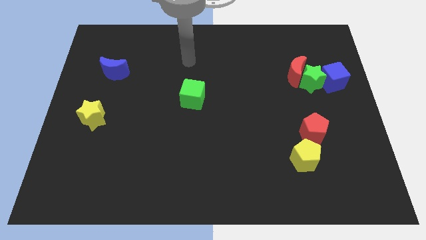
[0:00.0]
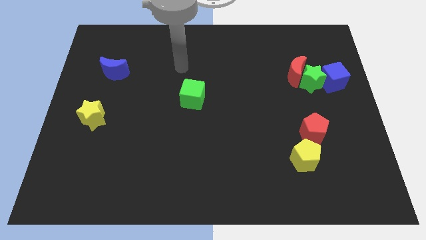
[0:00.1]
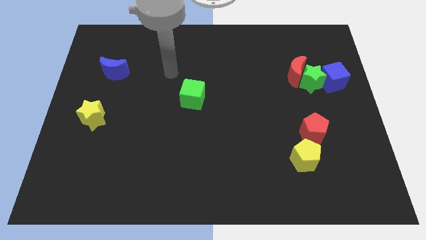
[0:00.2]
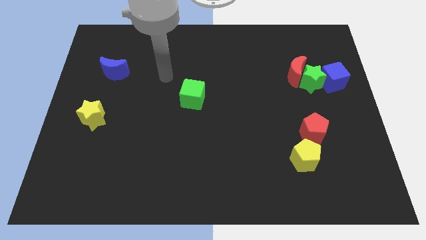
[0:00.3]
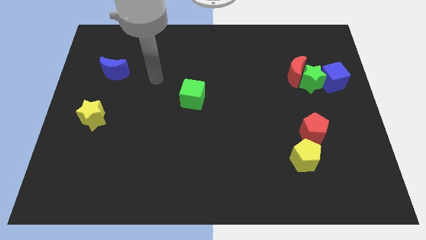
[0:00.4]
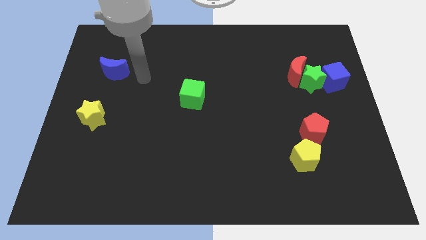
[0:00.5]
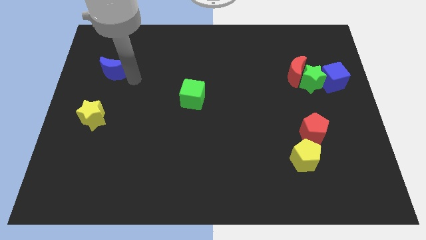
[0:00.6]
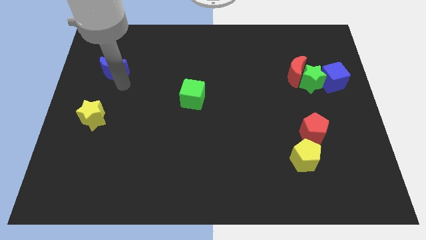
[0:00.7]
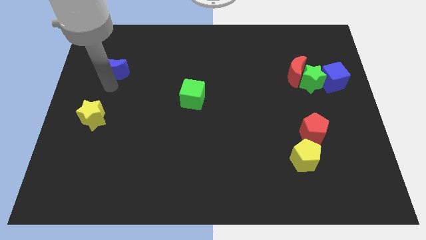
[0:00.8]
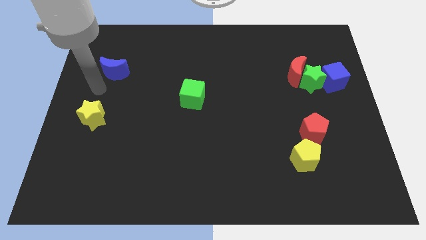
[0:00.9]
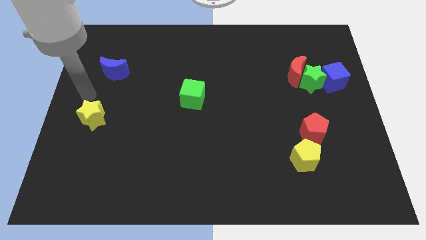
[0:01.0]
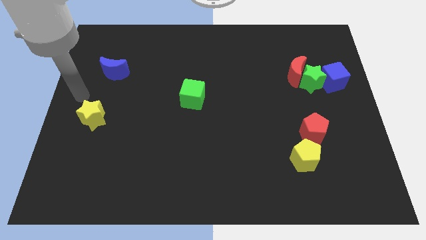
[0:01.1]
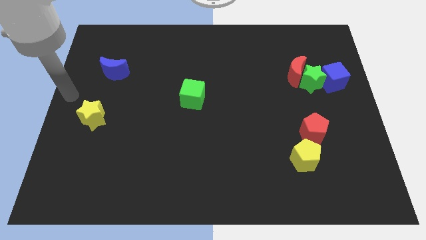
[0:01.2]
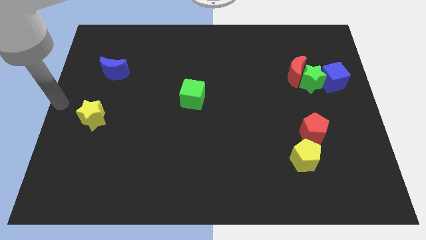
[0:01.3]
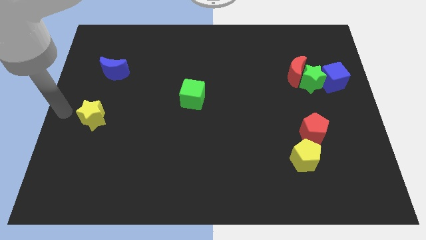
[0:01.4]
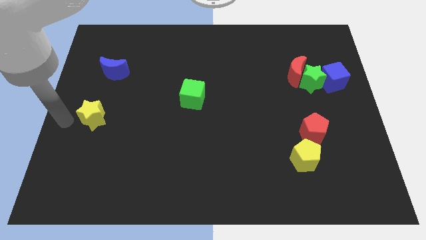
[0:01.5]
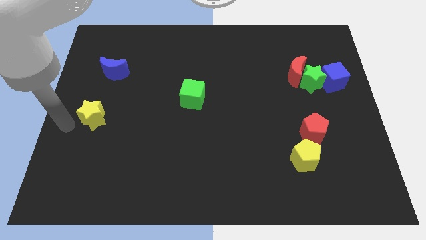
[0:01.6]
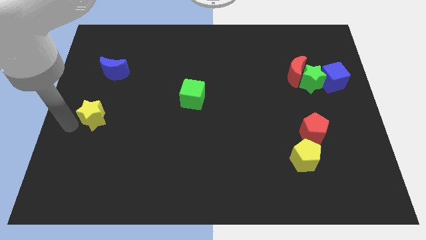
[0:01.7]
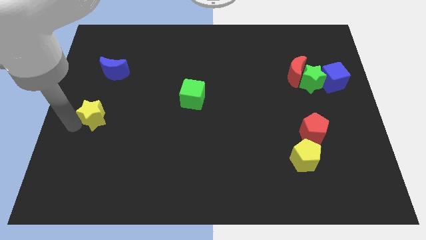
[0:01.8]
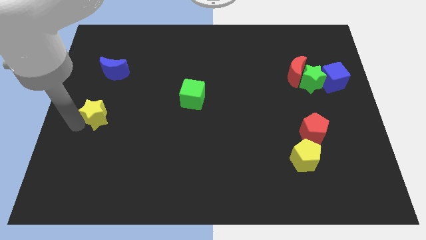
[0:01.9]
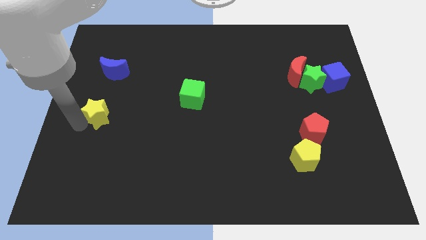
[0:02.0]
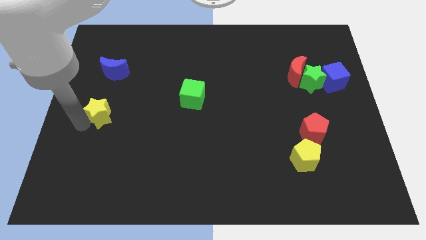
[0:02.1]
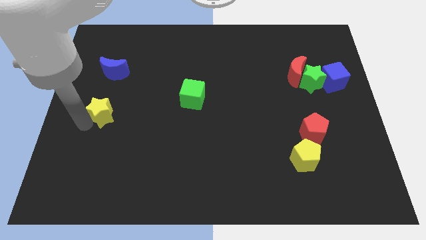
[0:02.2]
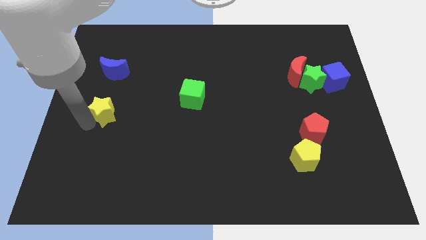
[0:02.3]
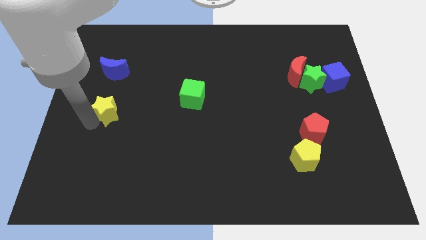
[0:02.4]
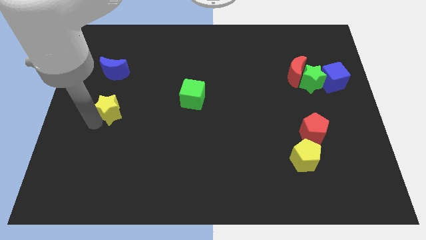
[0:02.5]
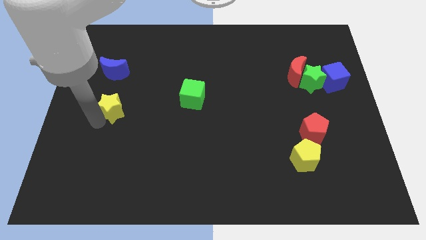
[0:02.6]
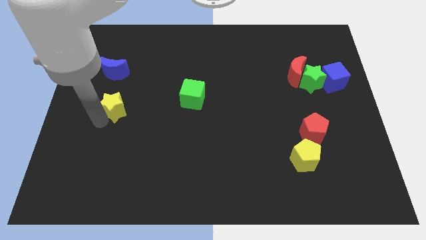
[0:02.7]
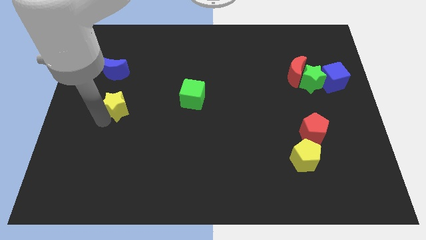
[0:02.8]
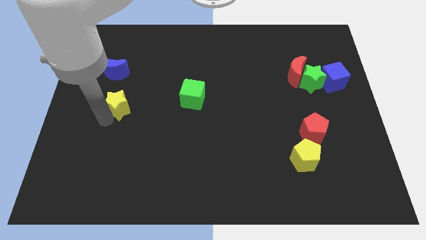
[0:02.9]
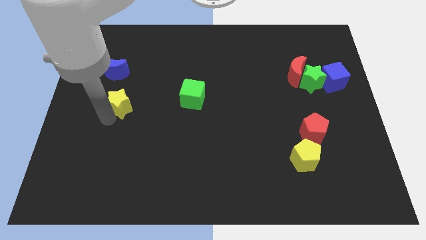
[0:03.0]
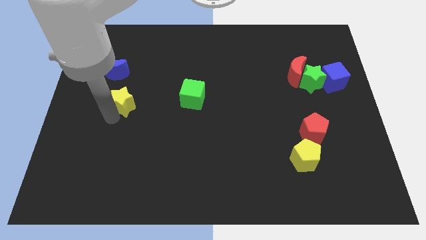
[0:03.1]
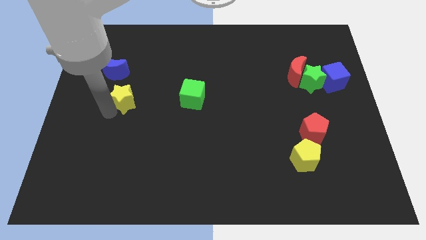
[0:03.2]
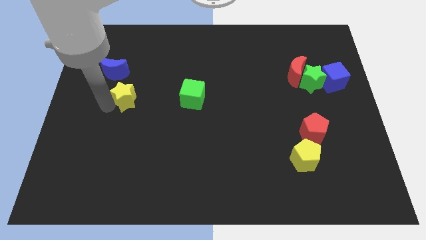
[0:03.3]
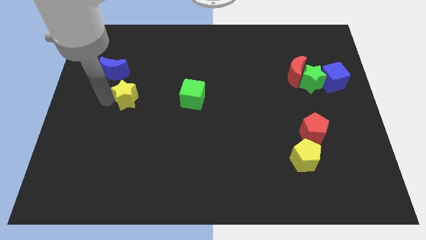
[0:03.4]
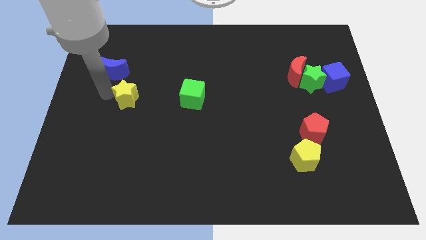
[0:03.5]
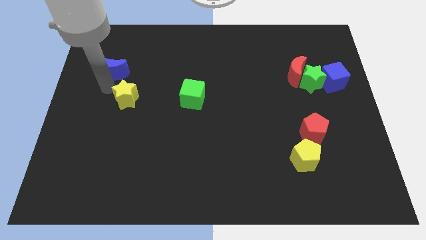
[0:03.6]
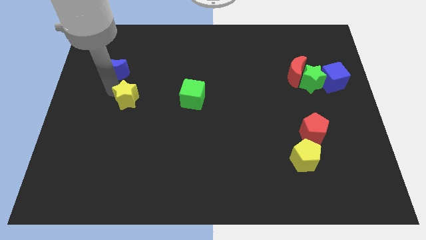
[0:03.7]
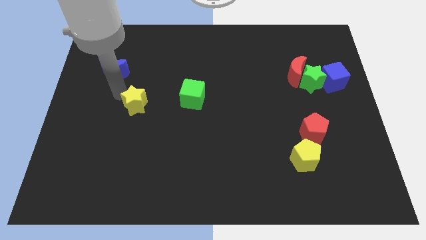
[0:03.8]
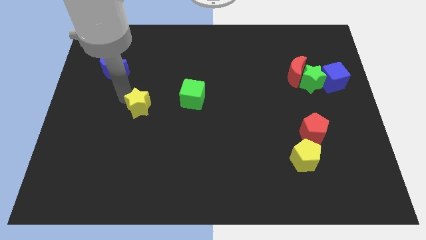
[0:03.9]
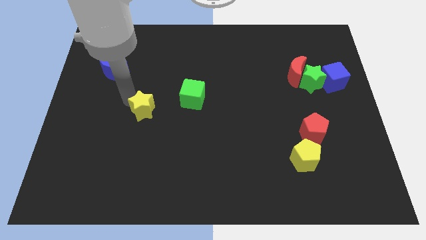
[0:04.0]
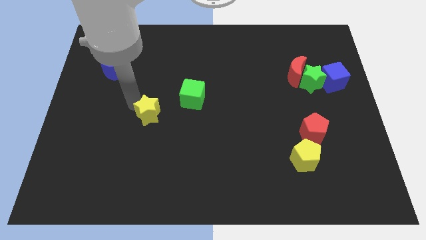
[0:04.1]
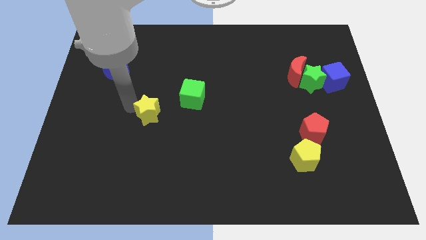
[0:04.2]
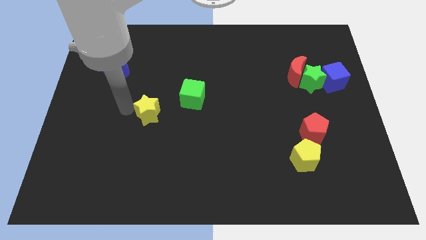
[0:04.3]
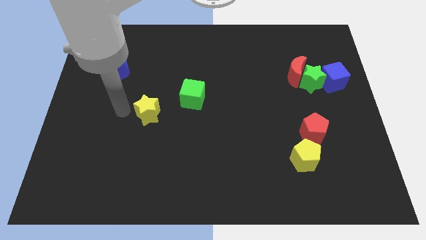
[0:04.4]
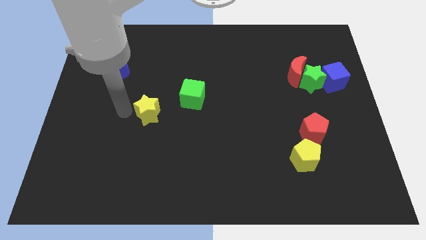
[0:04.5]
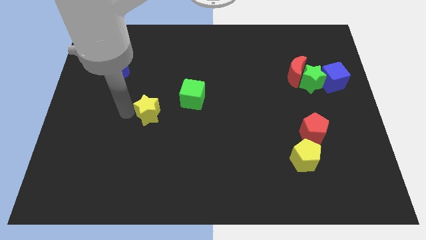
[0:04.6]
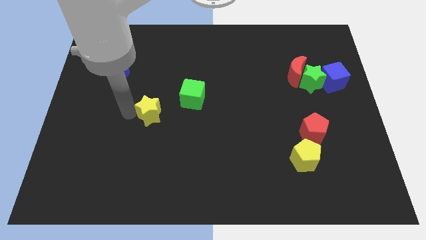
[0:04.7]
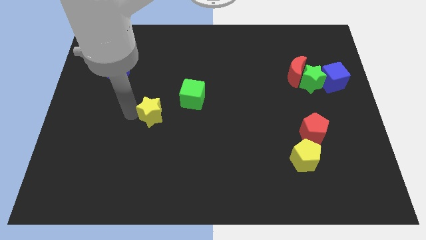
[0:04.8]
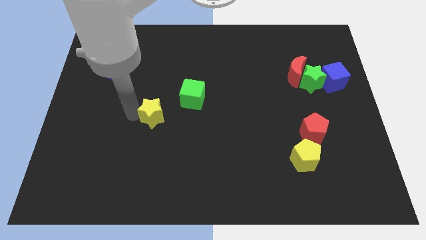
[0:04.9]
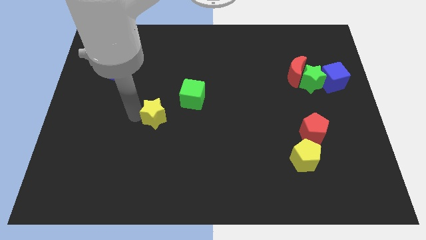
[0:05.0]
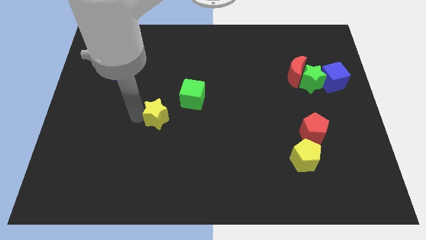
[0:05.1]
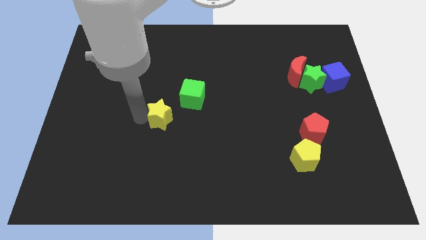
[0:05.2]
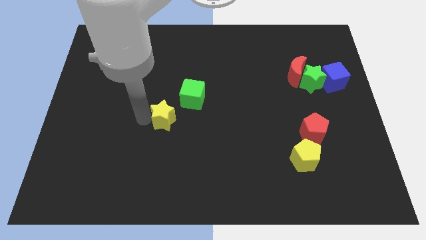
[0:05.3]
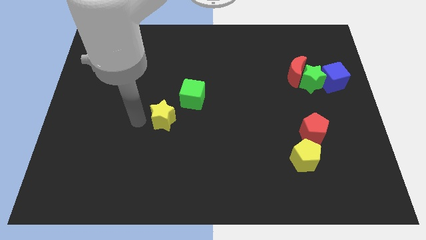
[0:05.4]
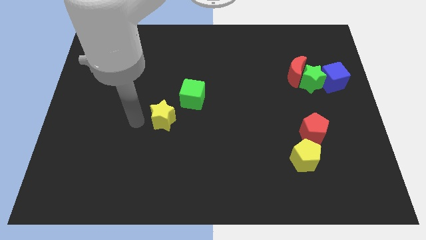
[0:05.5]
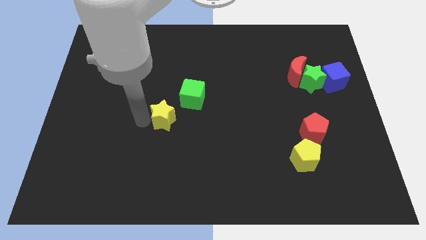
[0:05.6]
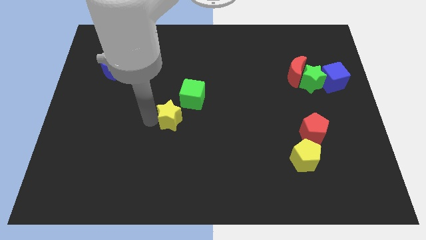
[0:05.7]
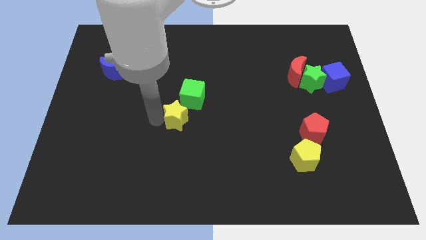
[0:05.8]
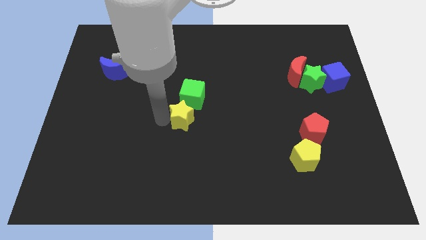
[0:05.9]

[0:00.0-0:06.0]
slide the yellow star right

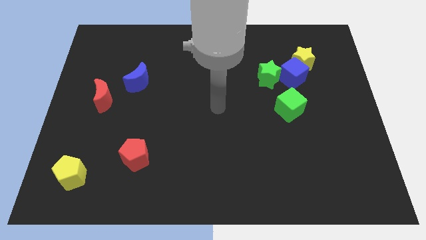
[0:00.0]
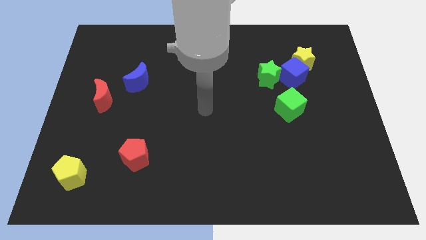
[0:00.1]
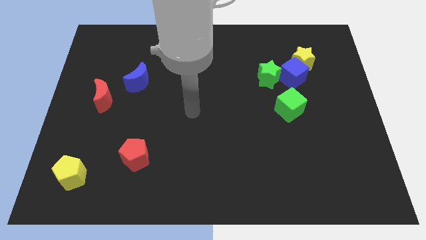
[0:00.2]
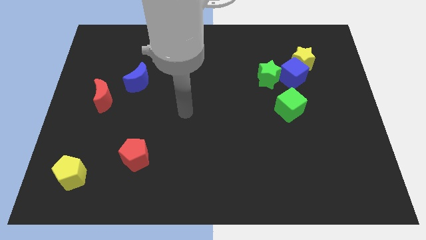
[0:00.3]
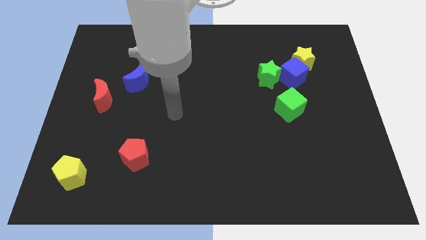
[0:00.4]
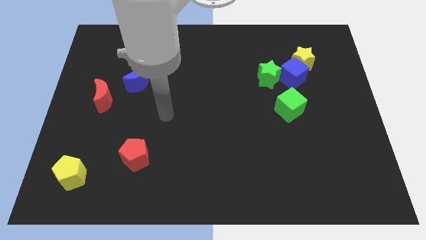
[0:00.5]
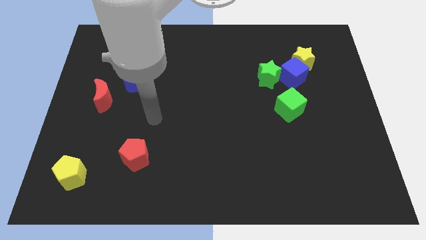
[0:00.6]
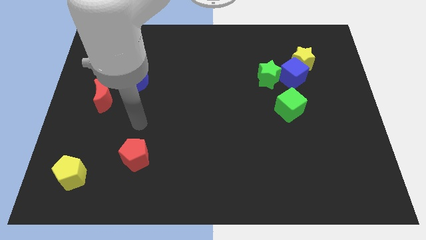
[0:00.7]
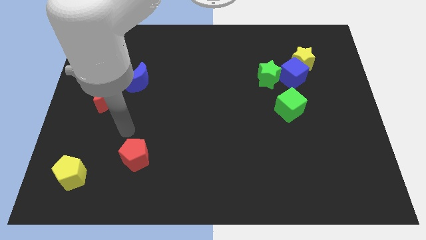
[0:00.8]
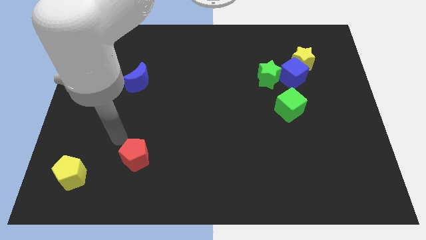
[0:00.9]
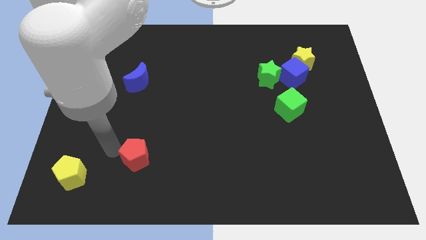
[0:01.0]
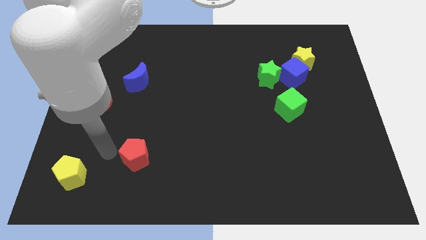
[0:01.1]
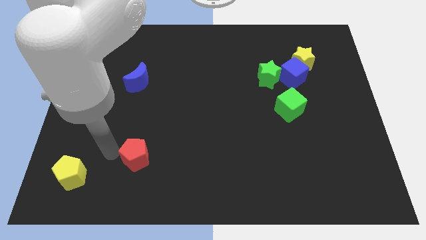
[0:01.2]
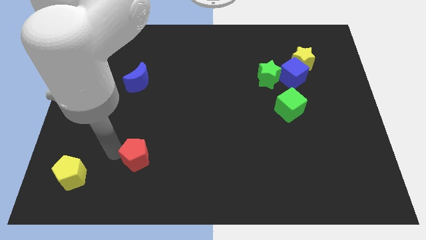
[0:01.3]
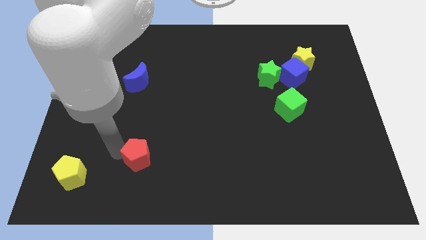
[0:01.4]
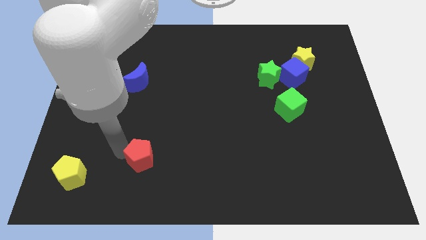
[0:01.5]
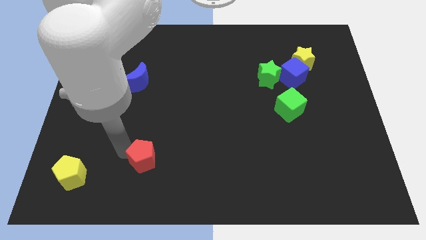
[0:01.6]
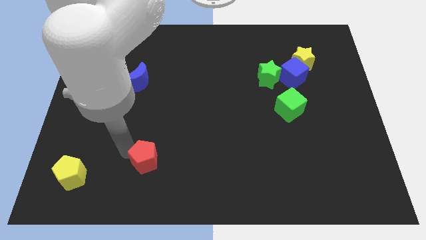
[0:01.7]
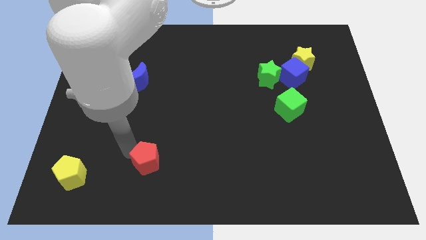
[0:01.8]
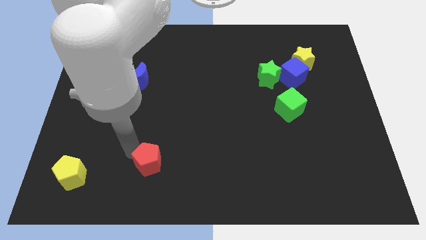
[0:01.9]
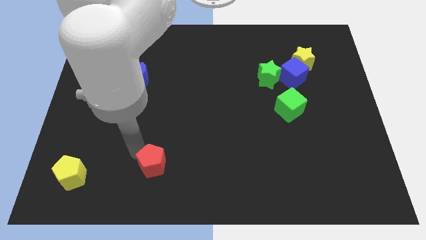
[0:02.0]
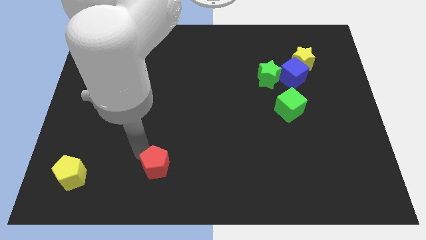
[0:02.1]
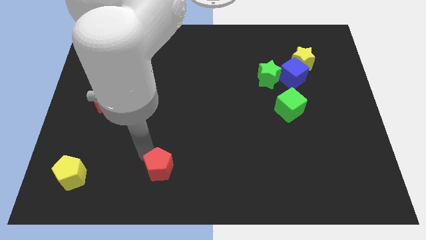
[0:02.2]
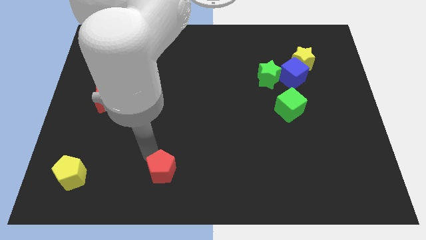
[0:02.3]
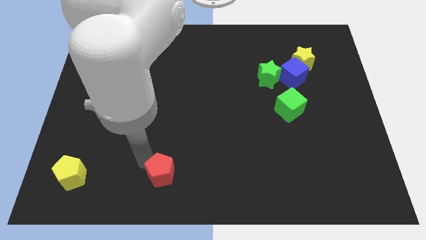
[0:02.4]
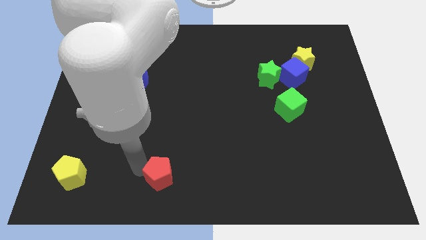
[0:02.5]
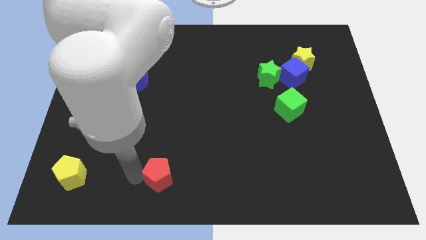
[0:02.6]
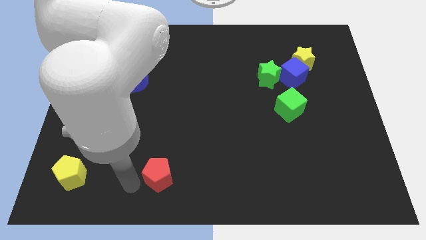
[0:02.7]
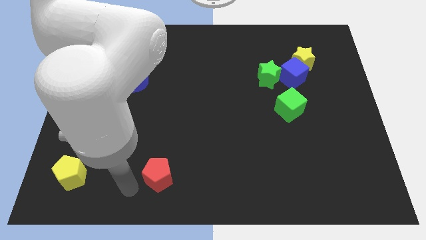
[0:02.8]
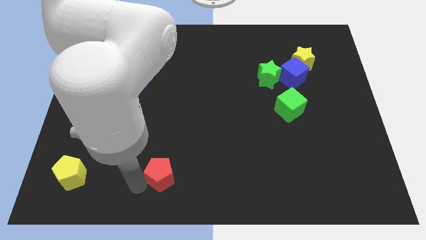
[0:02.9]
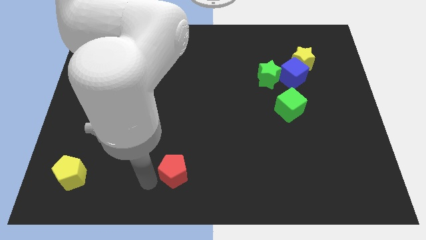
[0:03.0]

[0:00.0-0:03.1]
slide the red pentagon right slightly
